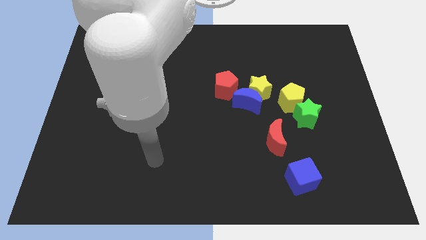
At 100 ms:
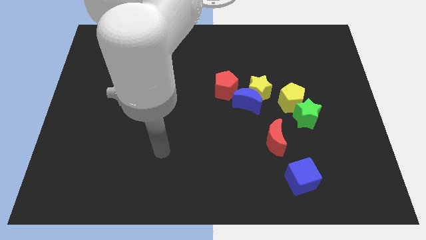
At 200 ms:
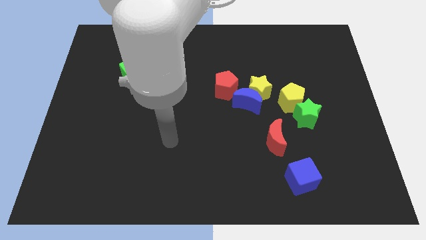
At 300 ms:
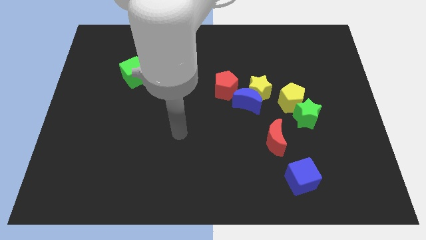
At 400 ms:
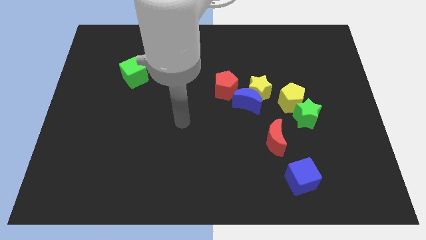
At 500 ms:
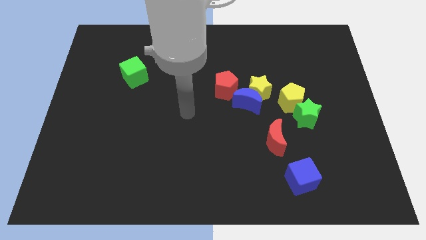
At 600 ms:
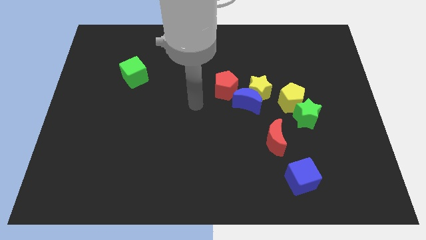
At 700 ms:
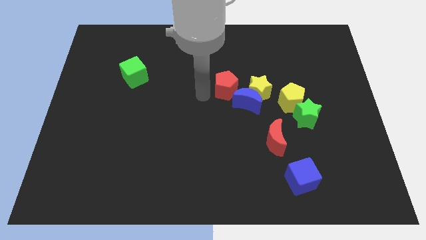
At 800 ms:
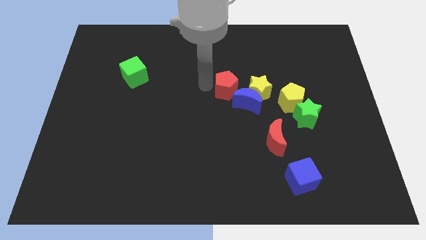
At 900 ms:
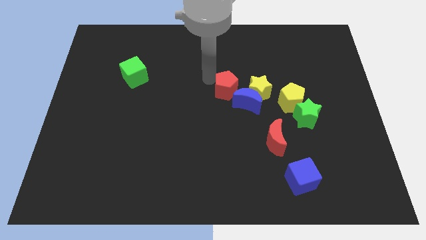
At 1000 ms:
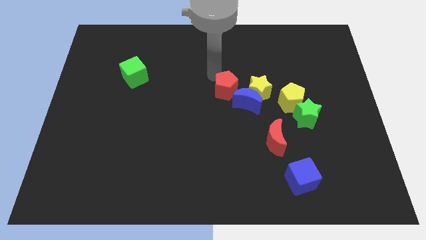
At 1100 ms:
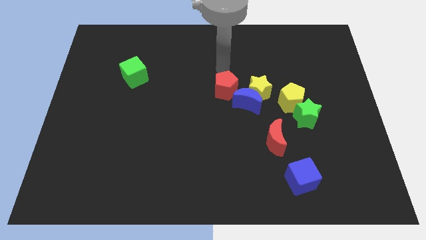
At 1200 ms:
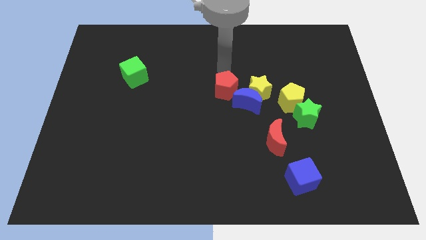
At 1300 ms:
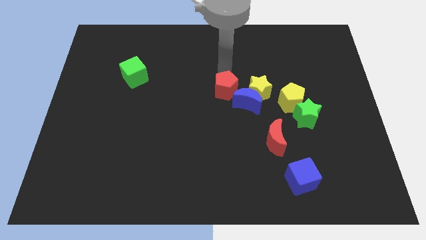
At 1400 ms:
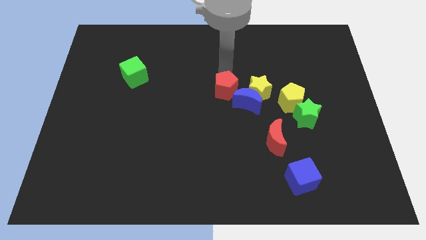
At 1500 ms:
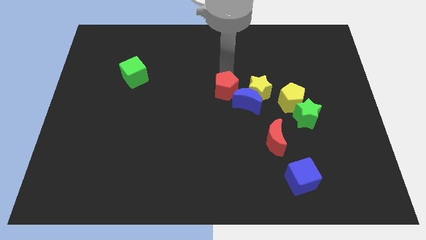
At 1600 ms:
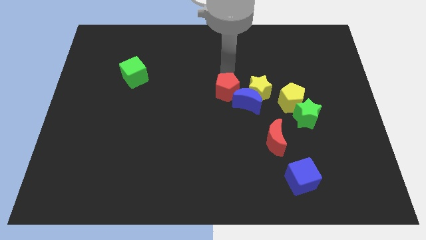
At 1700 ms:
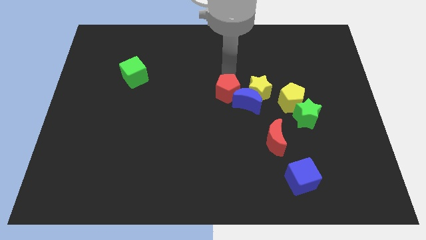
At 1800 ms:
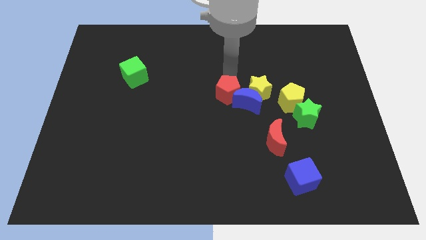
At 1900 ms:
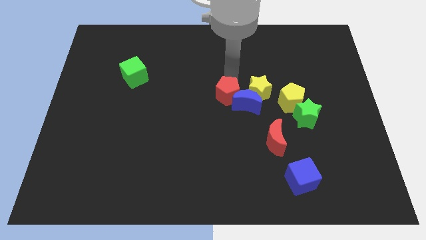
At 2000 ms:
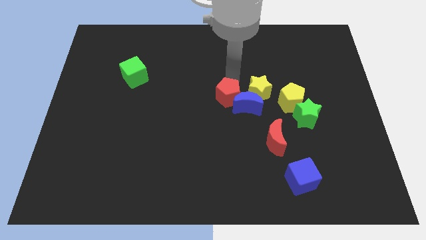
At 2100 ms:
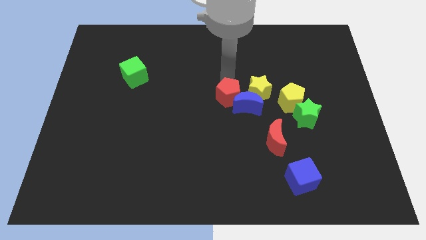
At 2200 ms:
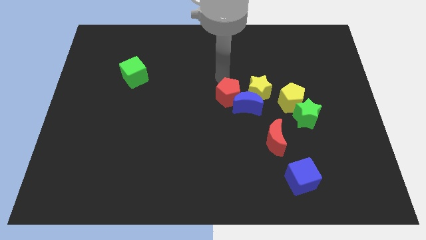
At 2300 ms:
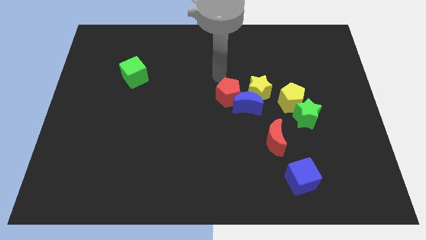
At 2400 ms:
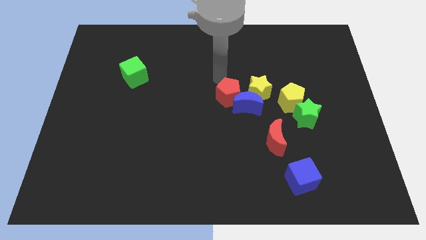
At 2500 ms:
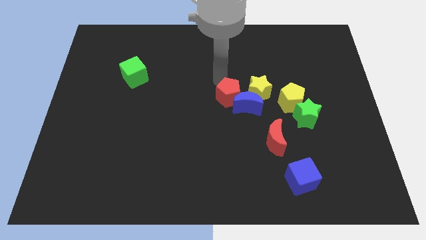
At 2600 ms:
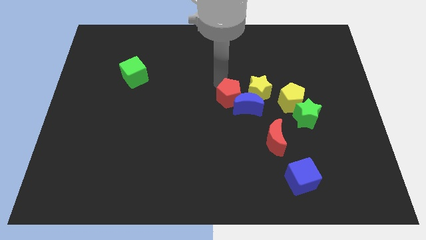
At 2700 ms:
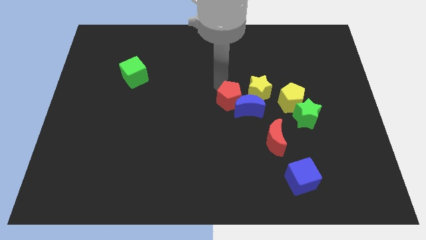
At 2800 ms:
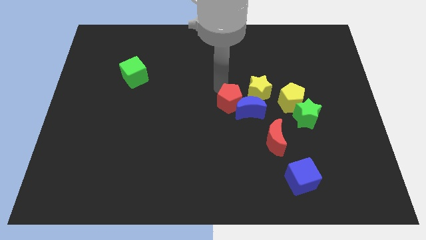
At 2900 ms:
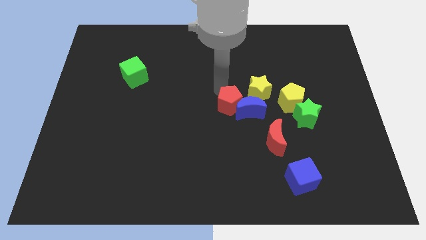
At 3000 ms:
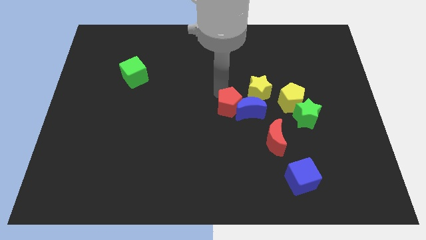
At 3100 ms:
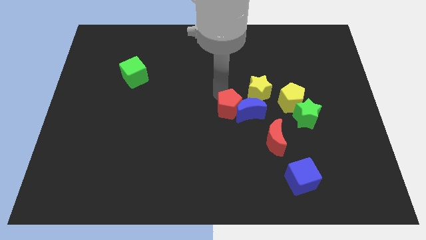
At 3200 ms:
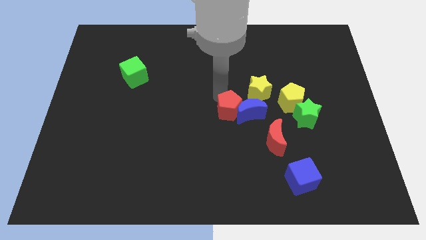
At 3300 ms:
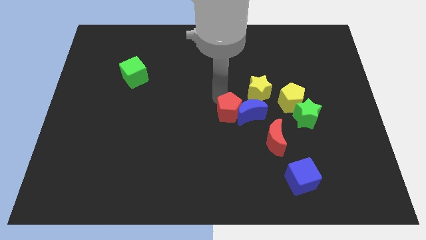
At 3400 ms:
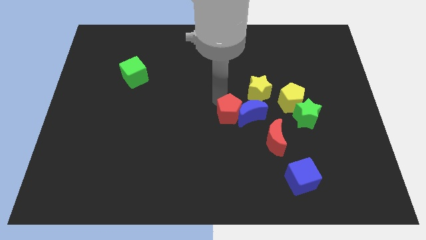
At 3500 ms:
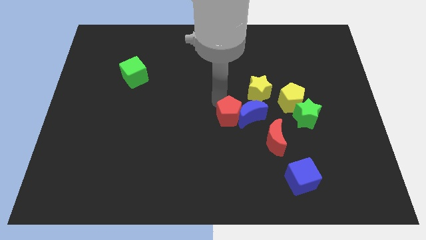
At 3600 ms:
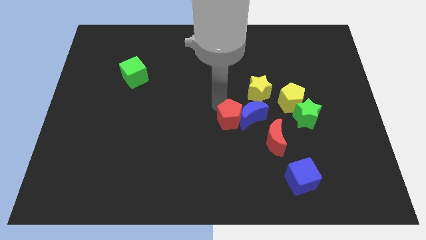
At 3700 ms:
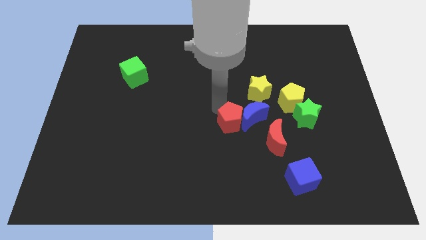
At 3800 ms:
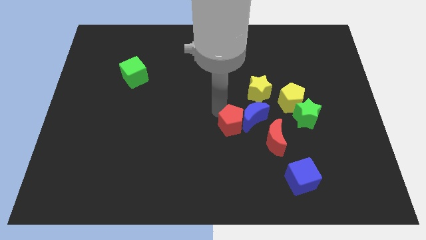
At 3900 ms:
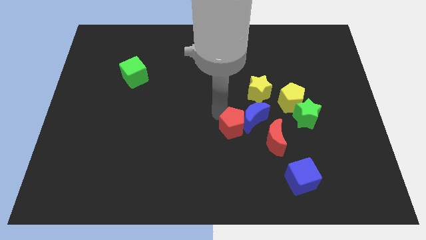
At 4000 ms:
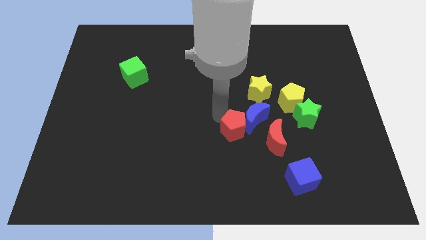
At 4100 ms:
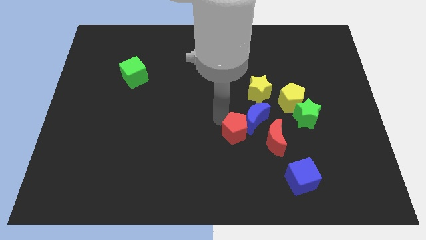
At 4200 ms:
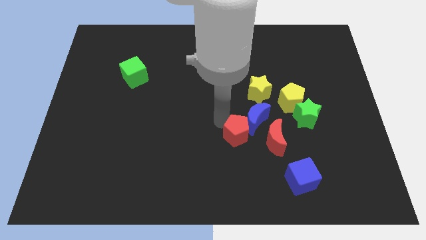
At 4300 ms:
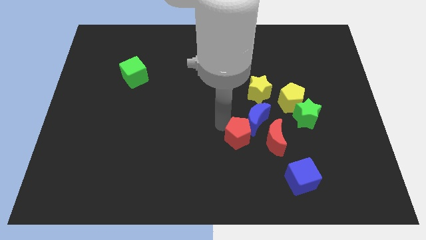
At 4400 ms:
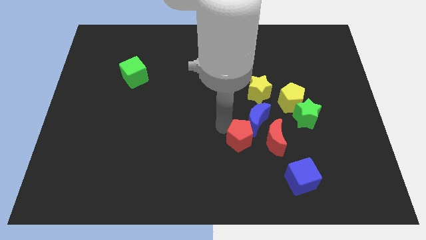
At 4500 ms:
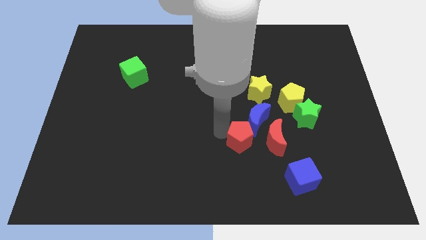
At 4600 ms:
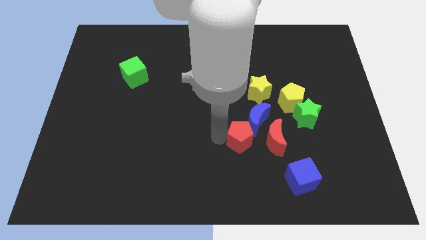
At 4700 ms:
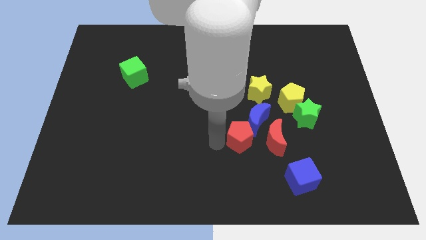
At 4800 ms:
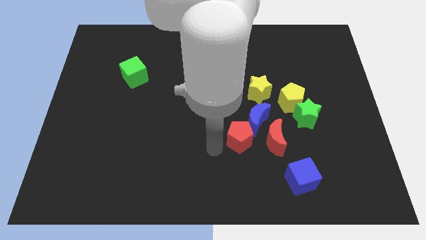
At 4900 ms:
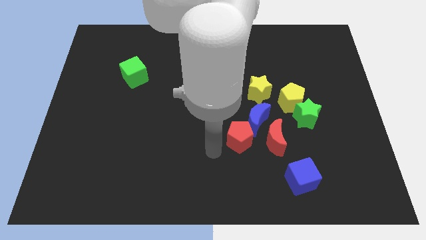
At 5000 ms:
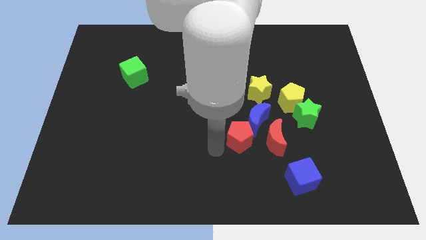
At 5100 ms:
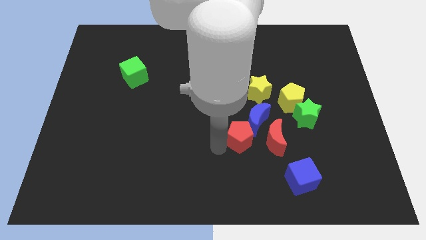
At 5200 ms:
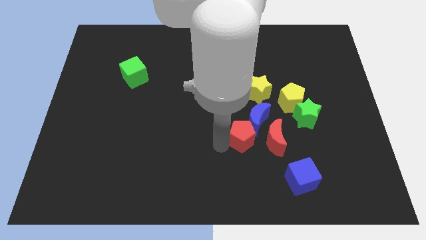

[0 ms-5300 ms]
slide the red pentagon below the yellow star

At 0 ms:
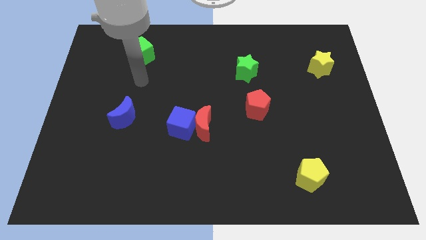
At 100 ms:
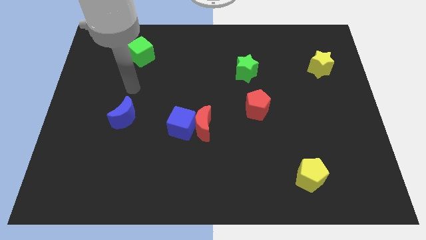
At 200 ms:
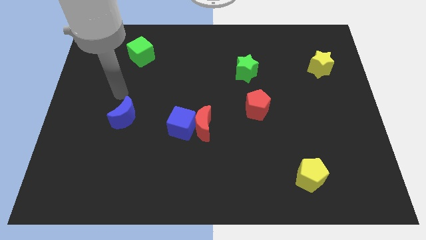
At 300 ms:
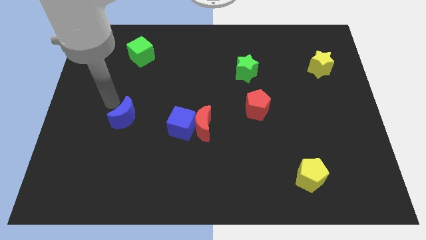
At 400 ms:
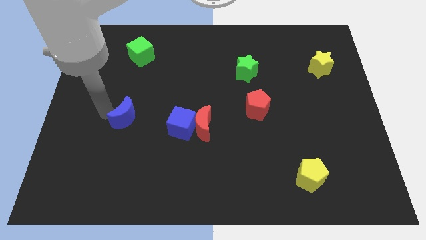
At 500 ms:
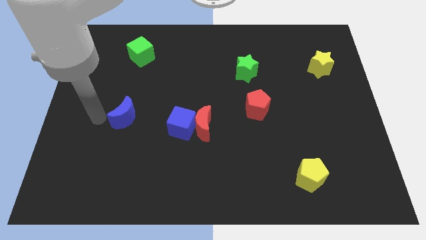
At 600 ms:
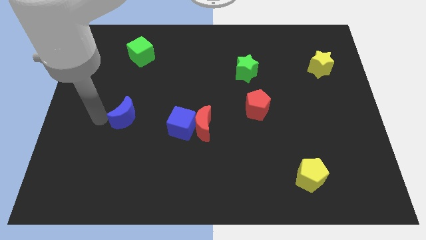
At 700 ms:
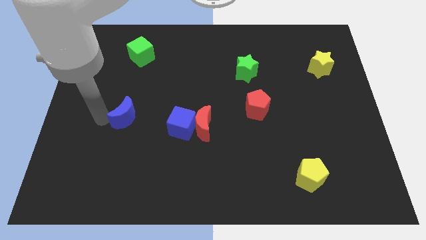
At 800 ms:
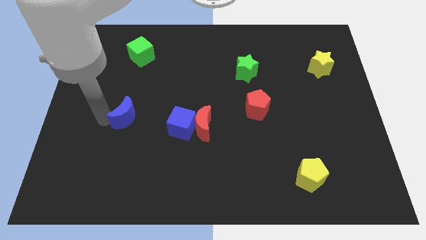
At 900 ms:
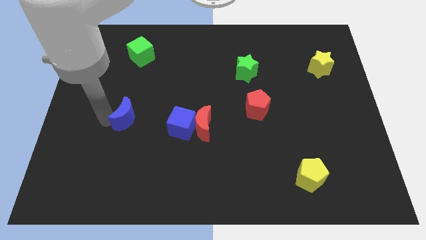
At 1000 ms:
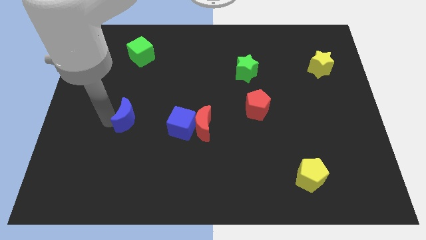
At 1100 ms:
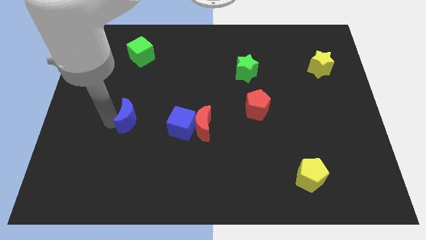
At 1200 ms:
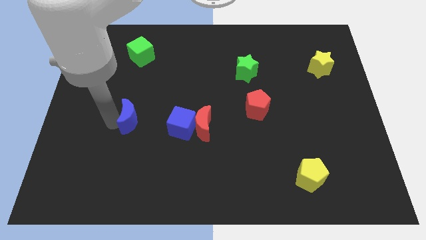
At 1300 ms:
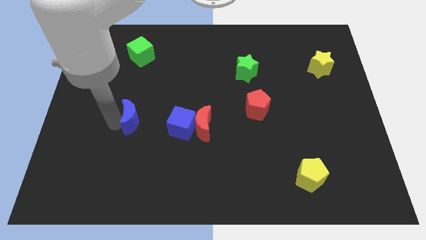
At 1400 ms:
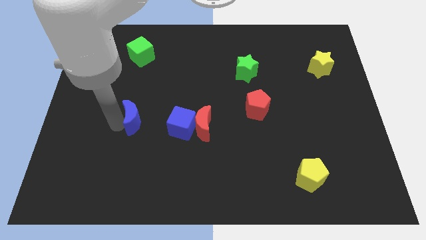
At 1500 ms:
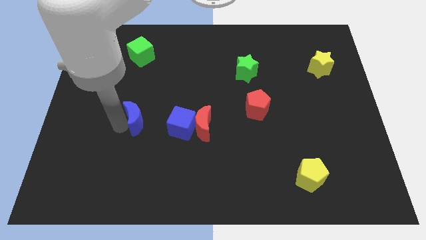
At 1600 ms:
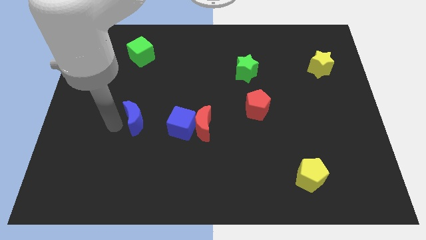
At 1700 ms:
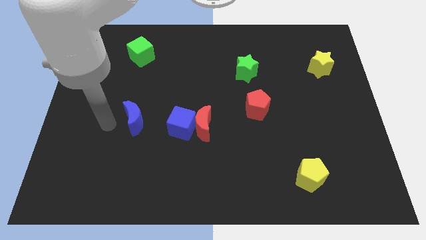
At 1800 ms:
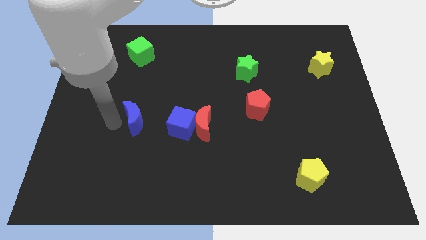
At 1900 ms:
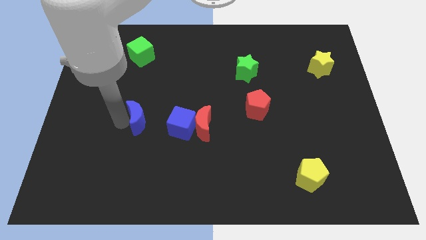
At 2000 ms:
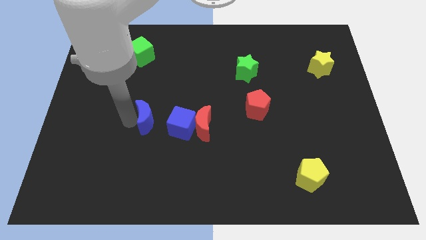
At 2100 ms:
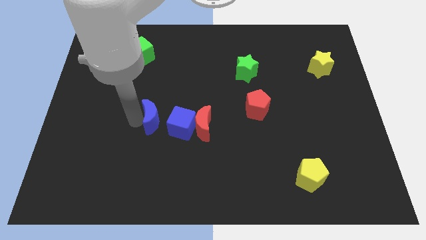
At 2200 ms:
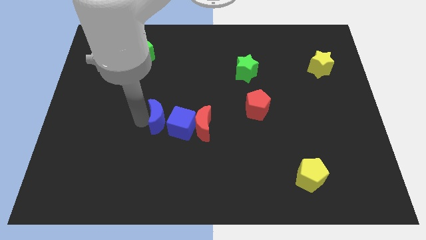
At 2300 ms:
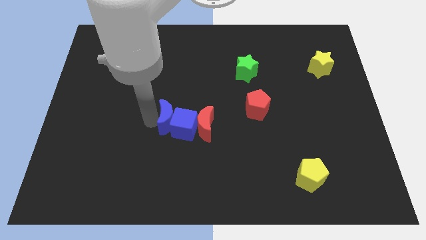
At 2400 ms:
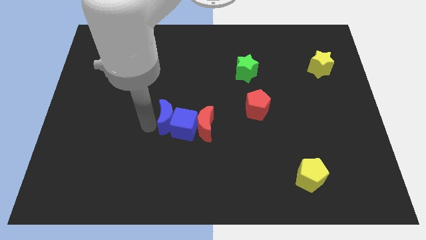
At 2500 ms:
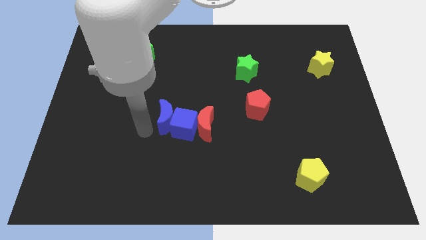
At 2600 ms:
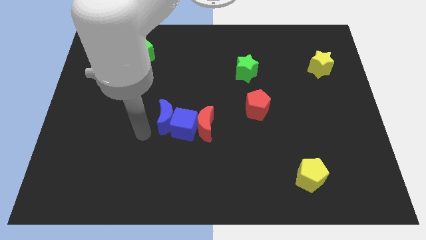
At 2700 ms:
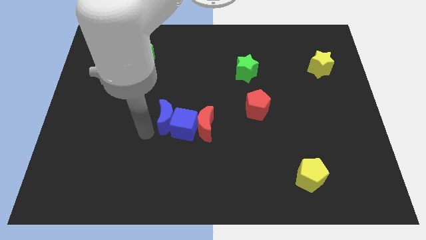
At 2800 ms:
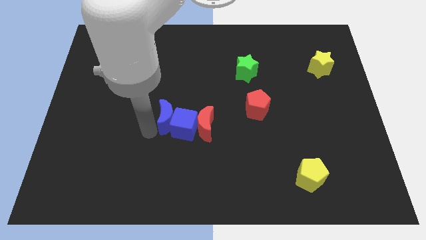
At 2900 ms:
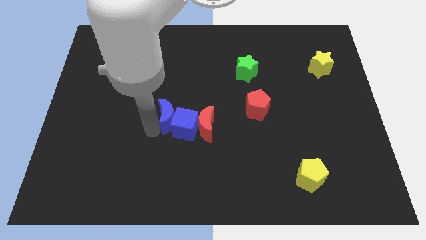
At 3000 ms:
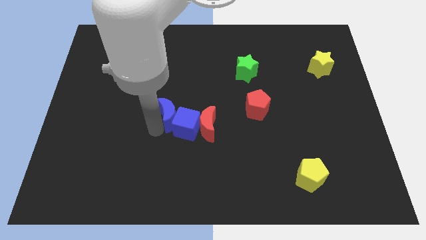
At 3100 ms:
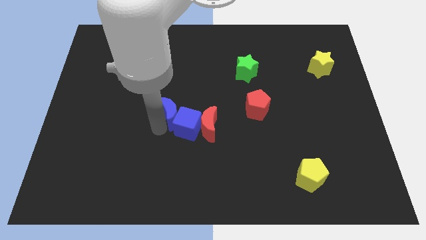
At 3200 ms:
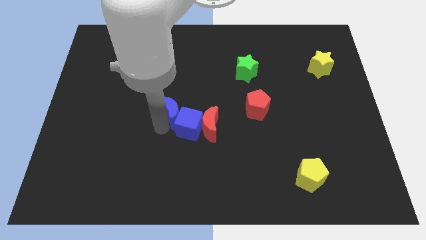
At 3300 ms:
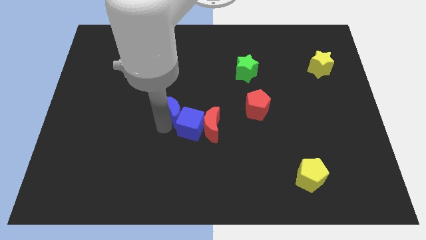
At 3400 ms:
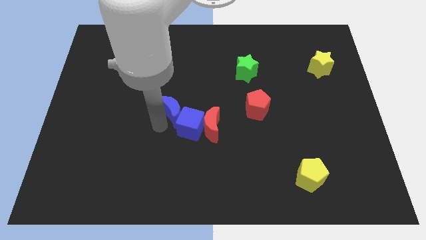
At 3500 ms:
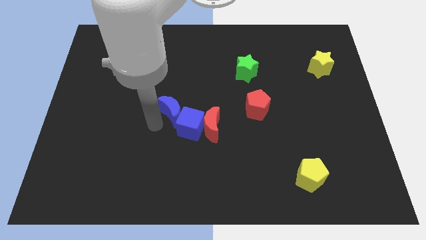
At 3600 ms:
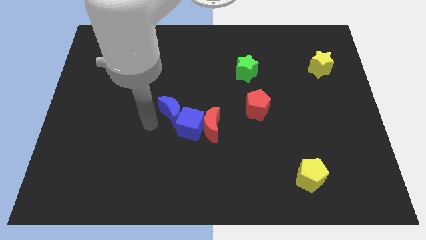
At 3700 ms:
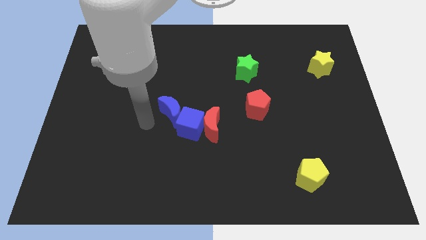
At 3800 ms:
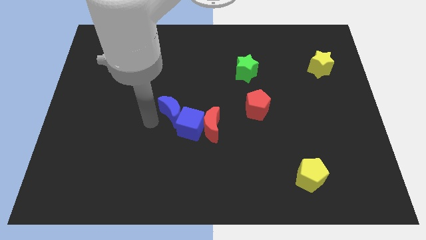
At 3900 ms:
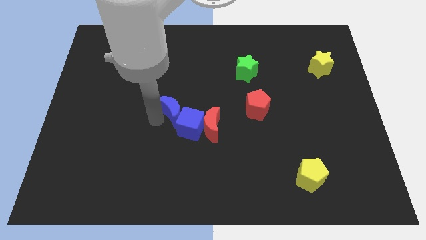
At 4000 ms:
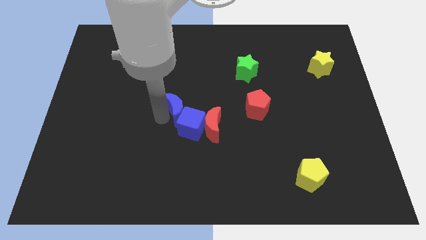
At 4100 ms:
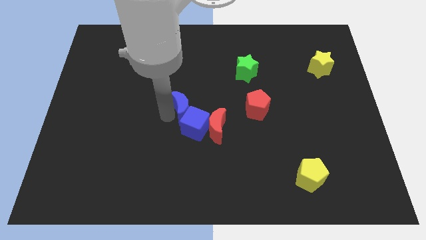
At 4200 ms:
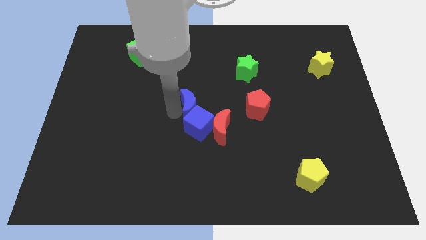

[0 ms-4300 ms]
move the blue moon just left of the red pentagon
